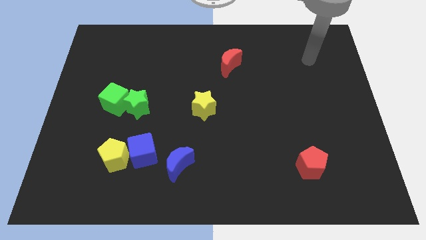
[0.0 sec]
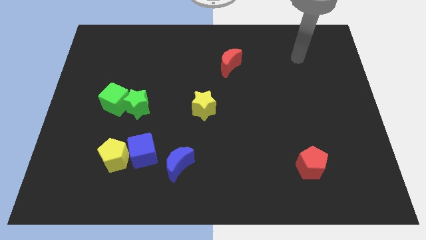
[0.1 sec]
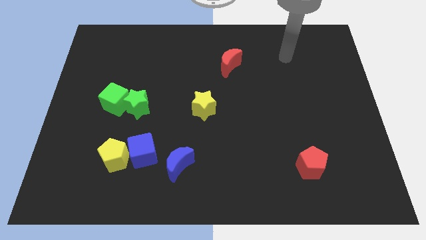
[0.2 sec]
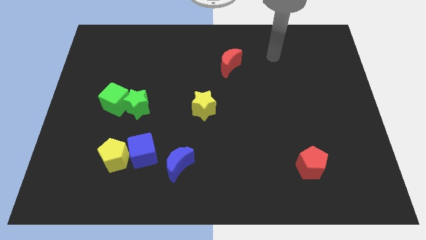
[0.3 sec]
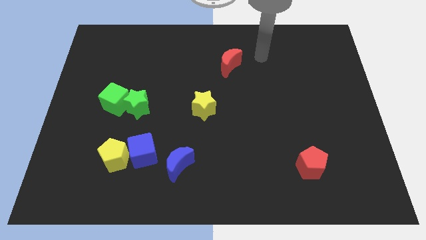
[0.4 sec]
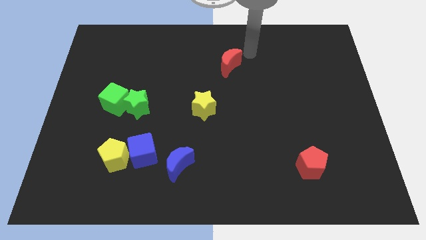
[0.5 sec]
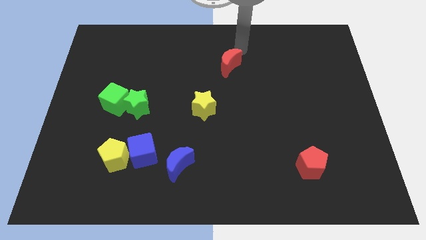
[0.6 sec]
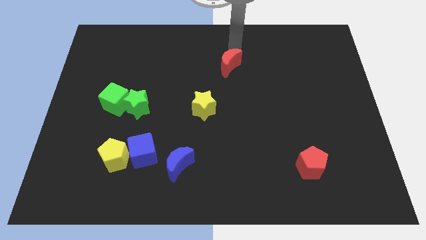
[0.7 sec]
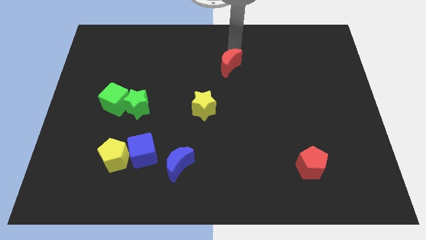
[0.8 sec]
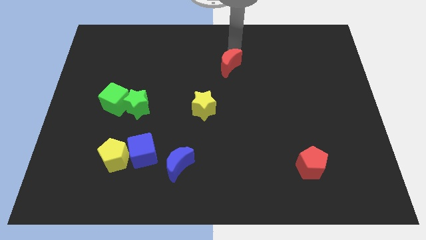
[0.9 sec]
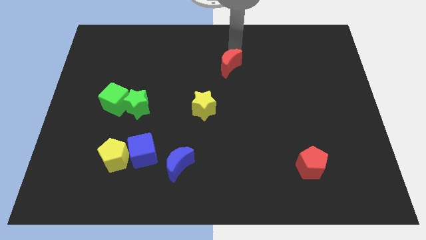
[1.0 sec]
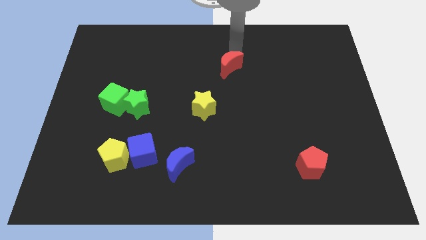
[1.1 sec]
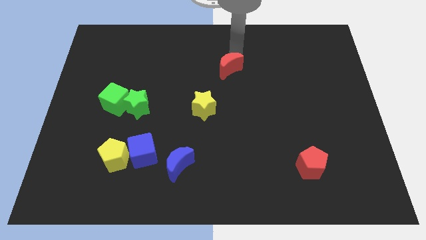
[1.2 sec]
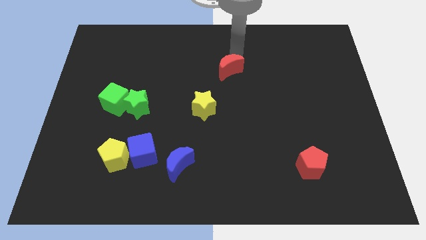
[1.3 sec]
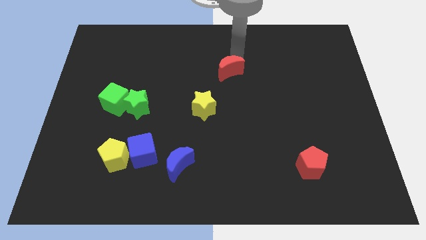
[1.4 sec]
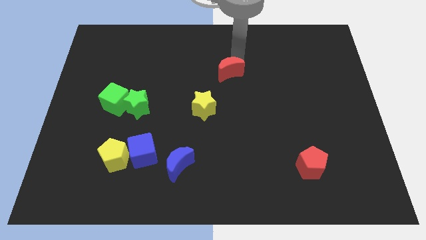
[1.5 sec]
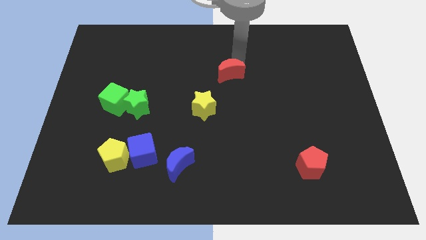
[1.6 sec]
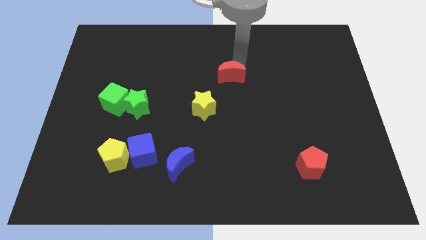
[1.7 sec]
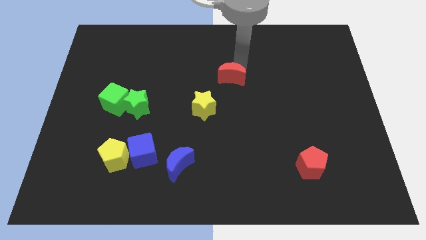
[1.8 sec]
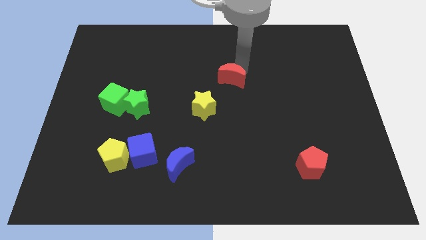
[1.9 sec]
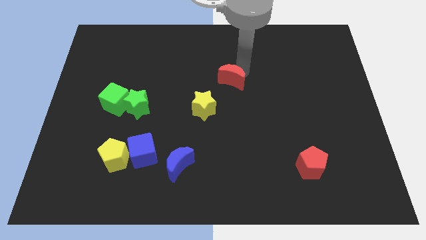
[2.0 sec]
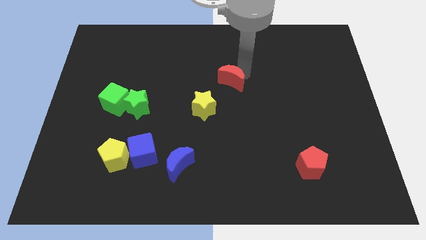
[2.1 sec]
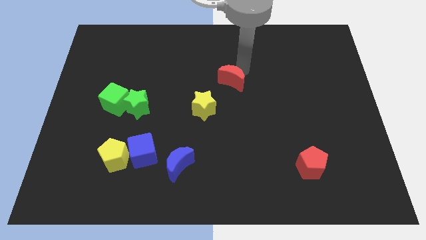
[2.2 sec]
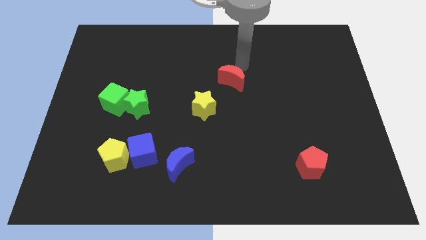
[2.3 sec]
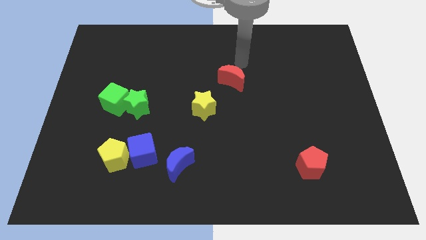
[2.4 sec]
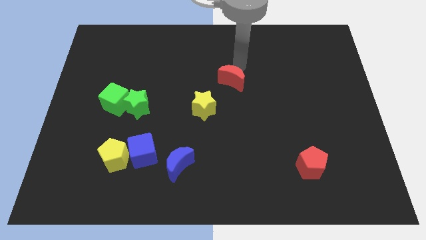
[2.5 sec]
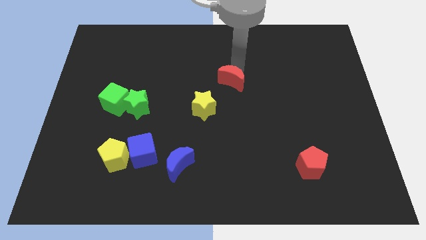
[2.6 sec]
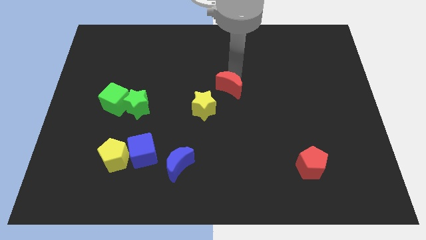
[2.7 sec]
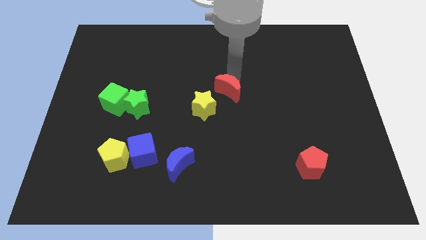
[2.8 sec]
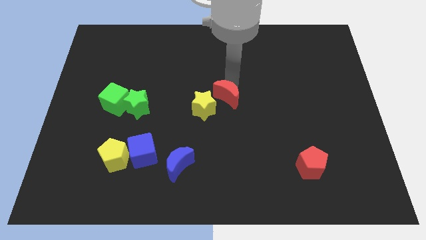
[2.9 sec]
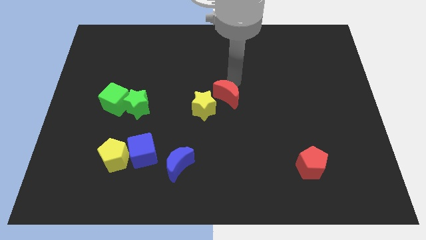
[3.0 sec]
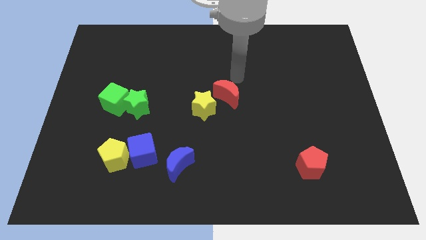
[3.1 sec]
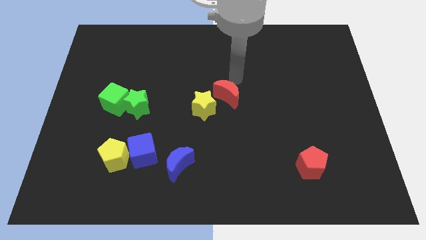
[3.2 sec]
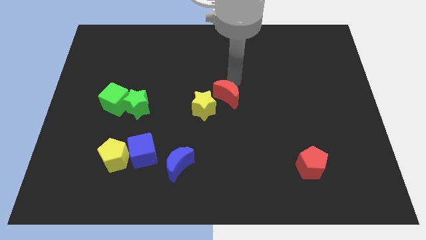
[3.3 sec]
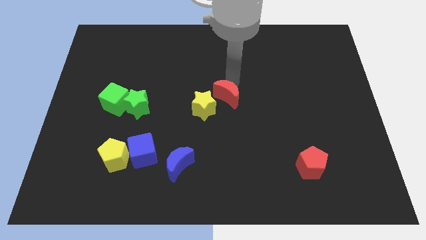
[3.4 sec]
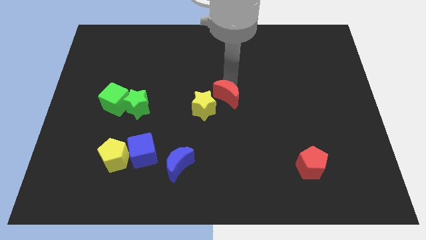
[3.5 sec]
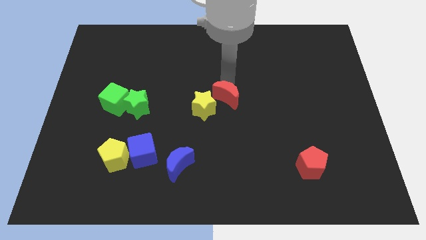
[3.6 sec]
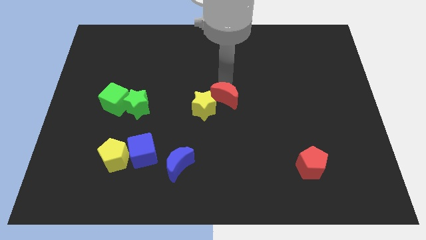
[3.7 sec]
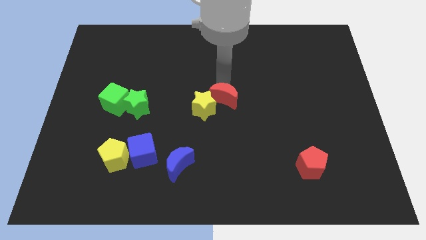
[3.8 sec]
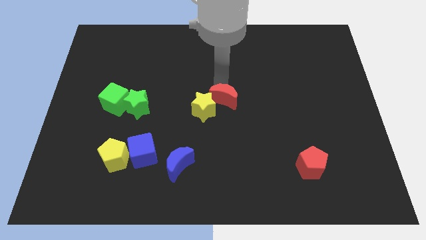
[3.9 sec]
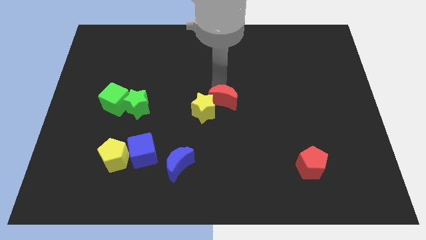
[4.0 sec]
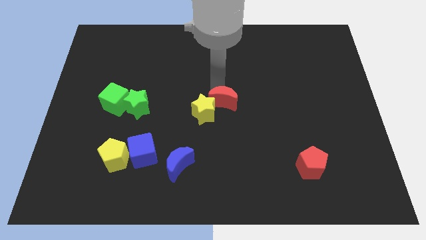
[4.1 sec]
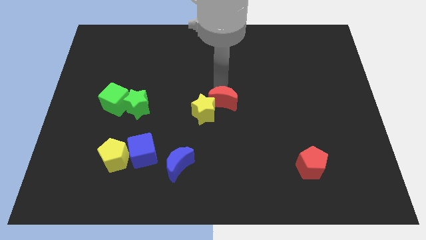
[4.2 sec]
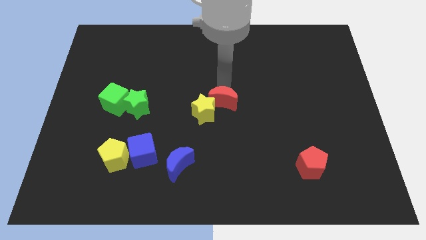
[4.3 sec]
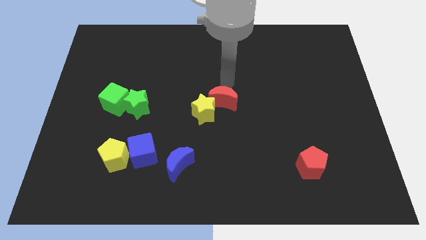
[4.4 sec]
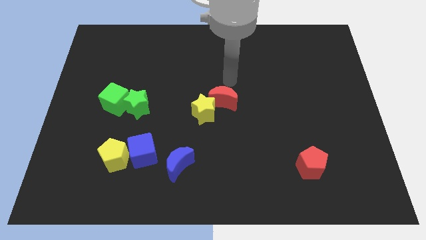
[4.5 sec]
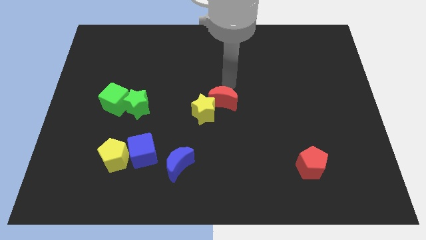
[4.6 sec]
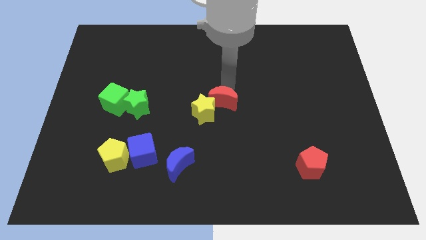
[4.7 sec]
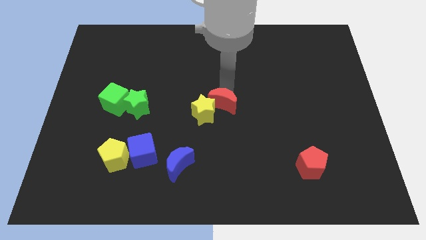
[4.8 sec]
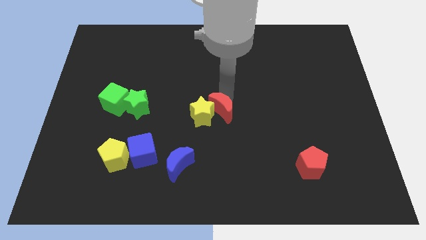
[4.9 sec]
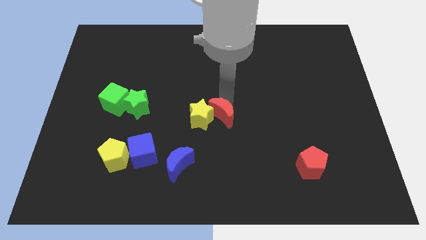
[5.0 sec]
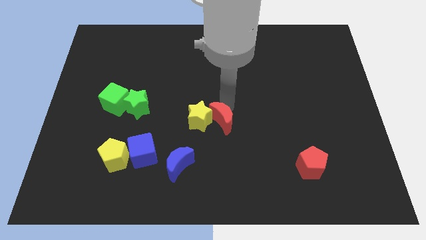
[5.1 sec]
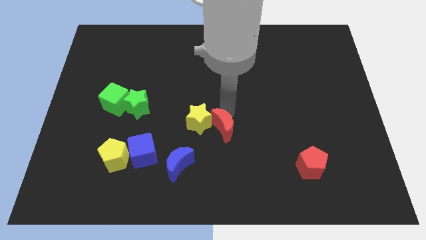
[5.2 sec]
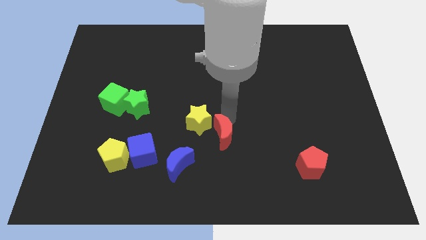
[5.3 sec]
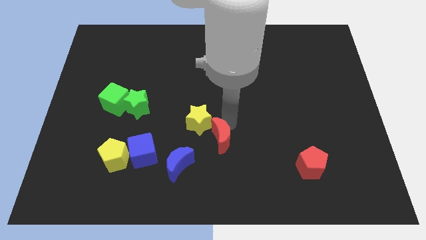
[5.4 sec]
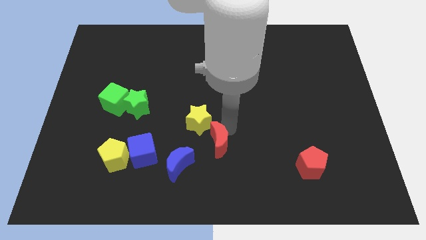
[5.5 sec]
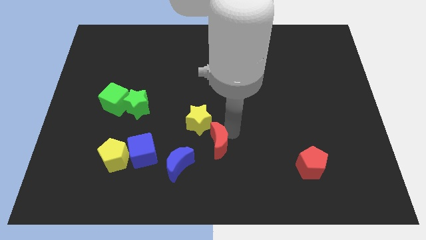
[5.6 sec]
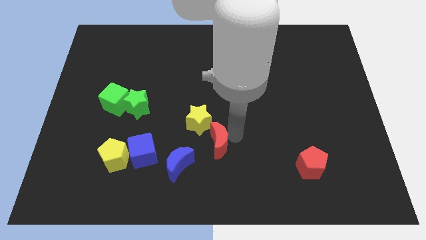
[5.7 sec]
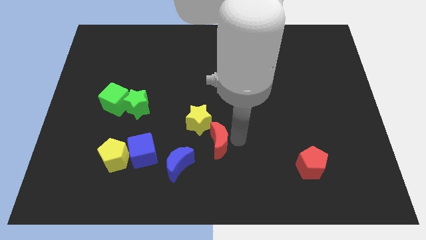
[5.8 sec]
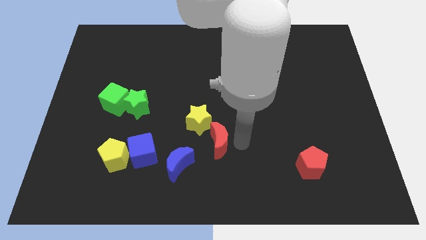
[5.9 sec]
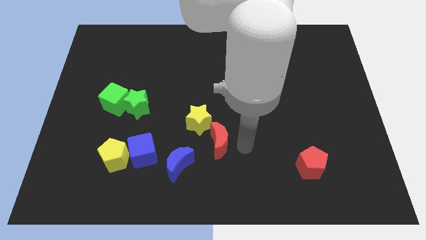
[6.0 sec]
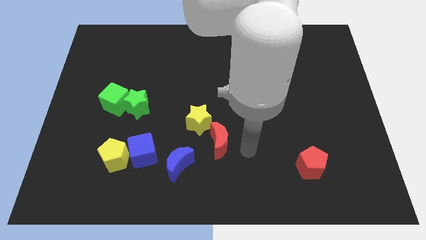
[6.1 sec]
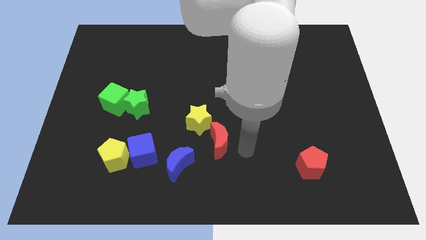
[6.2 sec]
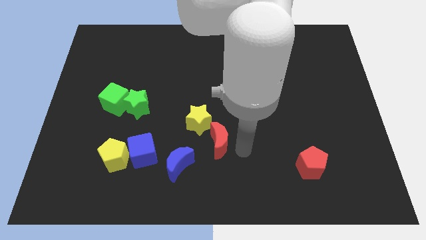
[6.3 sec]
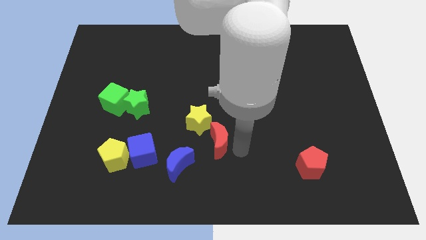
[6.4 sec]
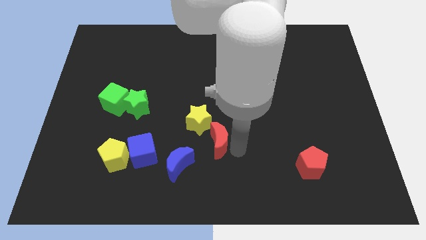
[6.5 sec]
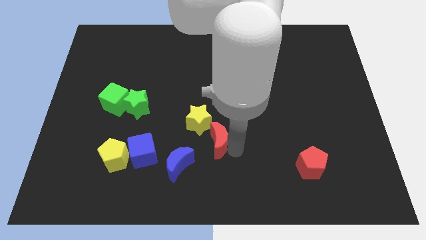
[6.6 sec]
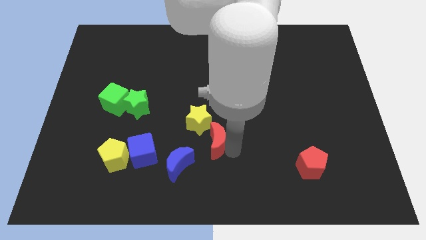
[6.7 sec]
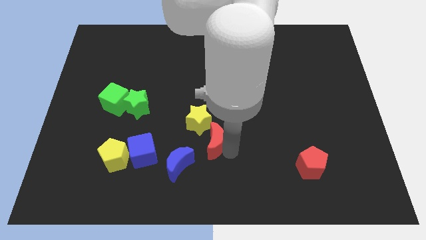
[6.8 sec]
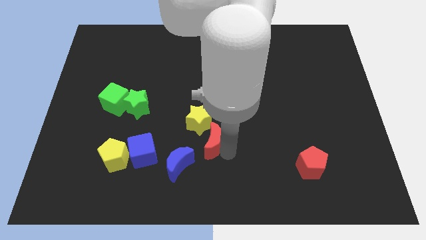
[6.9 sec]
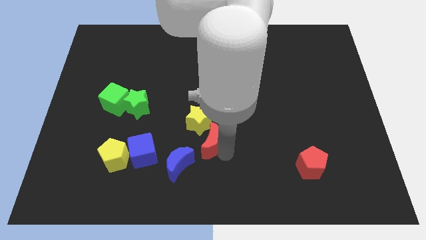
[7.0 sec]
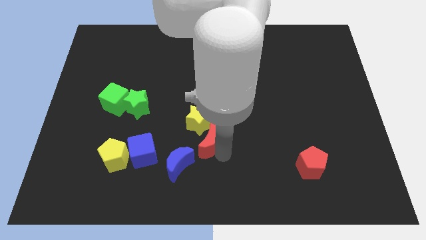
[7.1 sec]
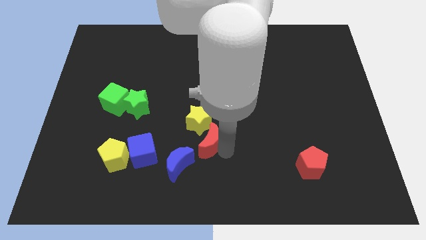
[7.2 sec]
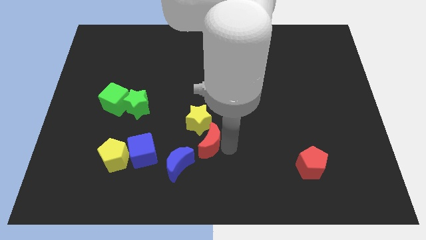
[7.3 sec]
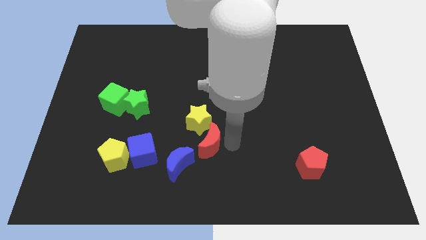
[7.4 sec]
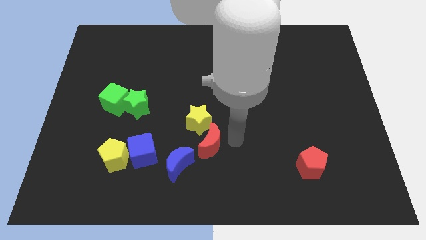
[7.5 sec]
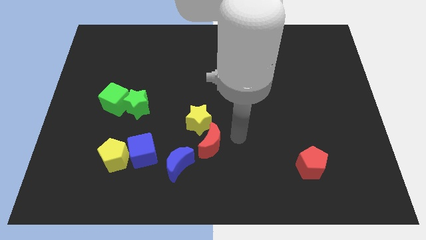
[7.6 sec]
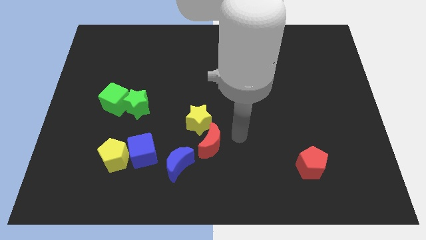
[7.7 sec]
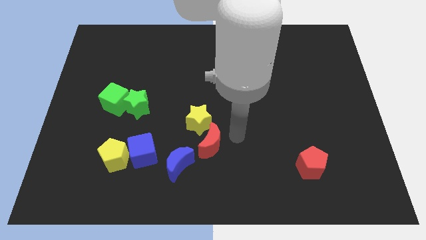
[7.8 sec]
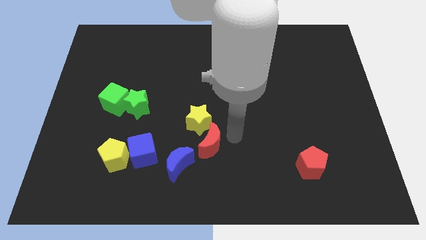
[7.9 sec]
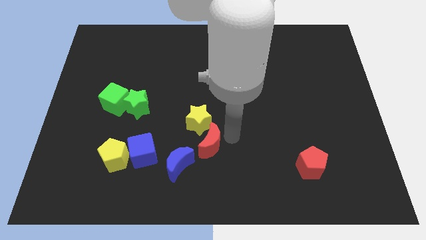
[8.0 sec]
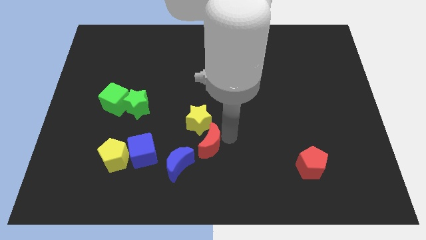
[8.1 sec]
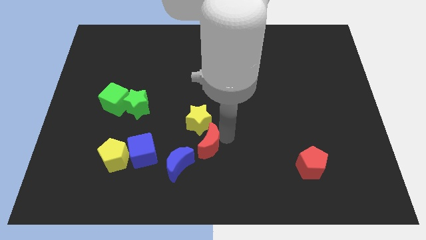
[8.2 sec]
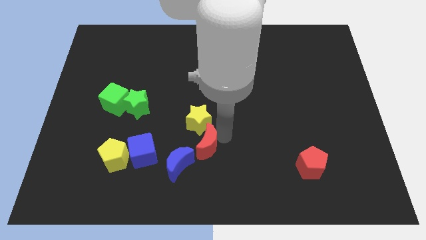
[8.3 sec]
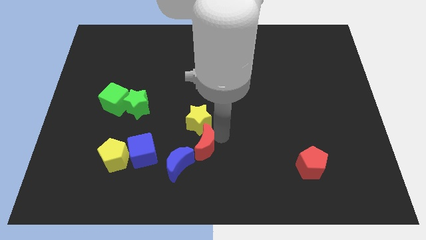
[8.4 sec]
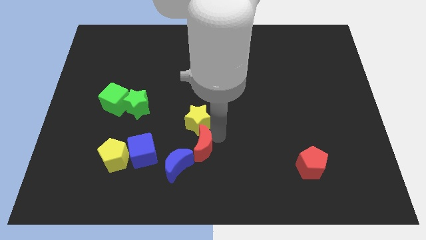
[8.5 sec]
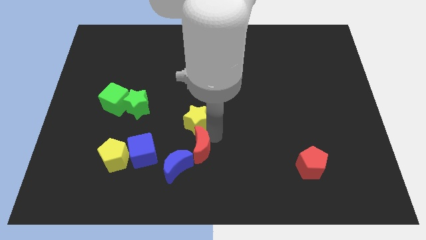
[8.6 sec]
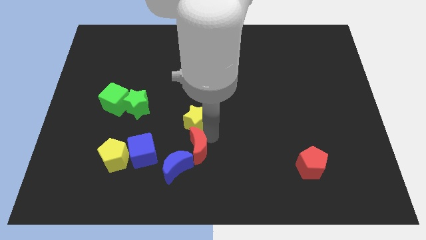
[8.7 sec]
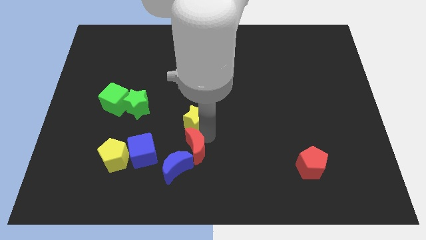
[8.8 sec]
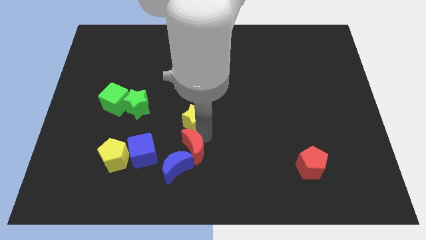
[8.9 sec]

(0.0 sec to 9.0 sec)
push the red moon to the blue moon
